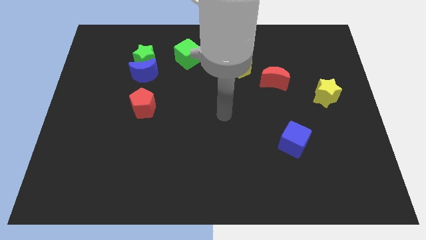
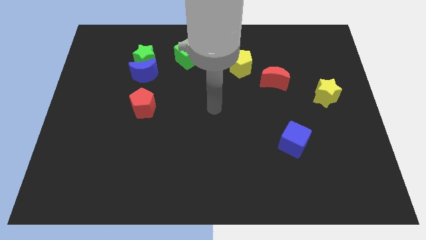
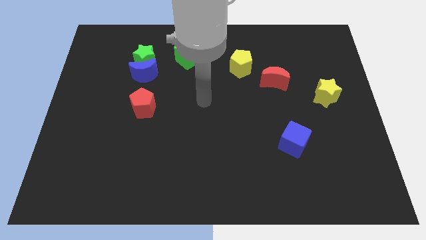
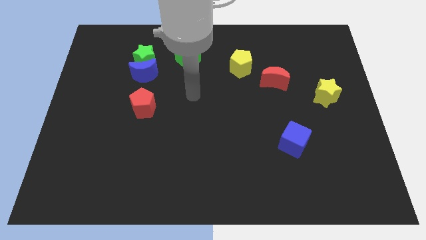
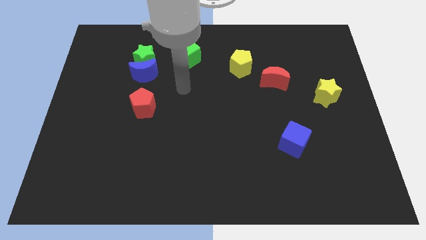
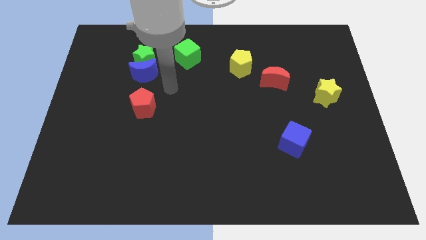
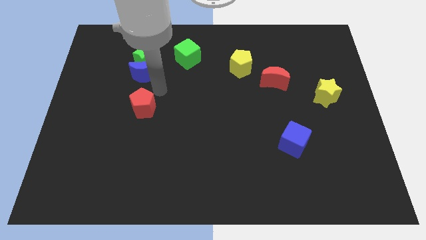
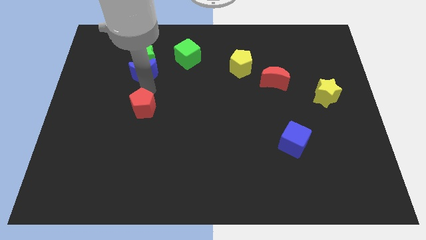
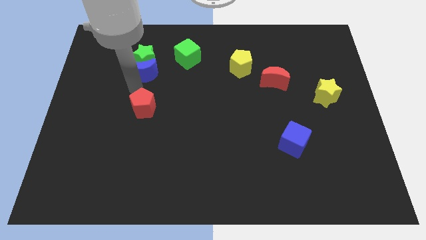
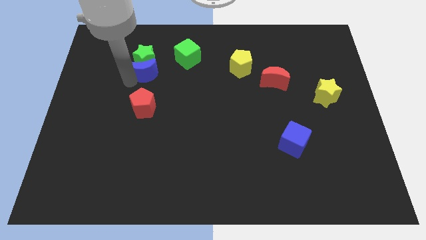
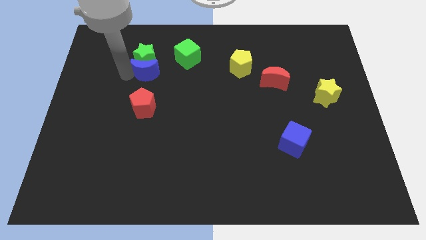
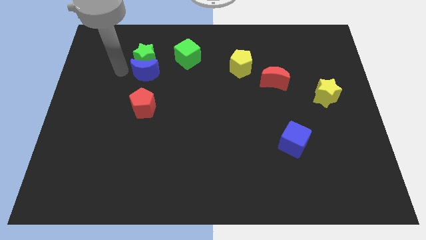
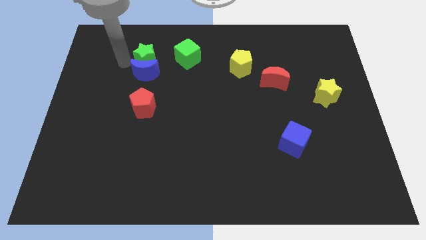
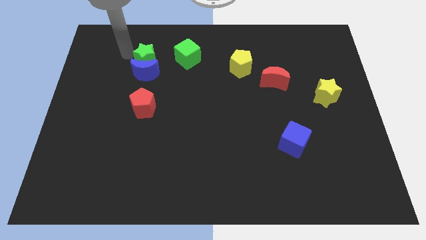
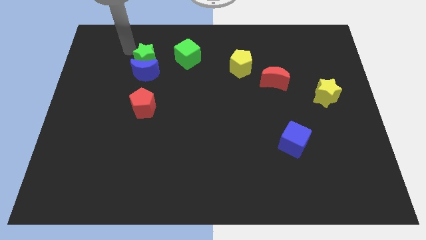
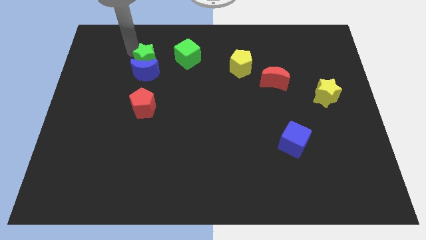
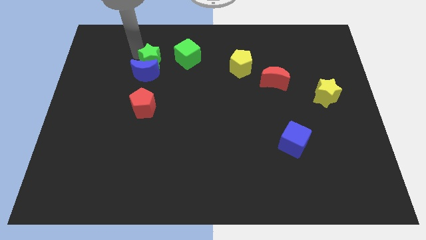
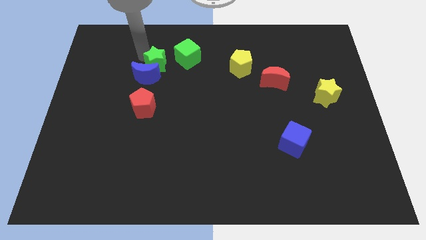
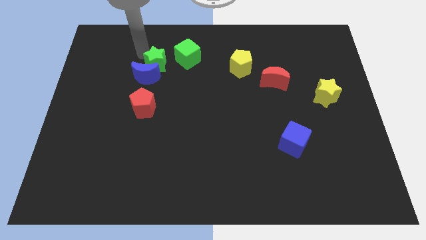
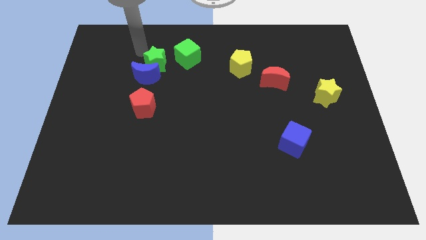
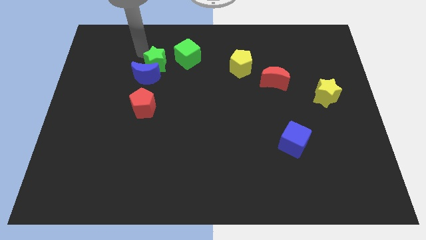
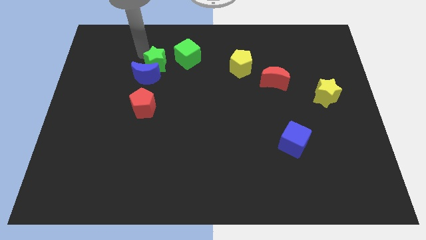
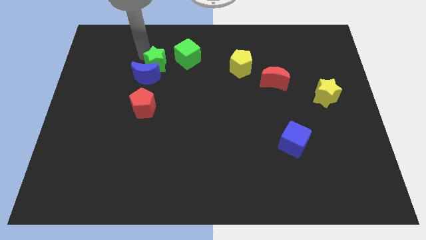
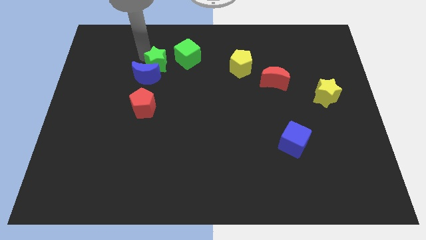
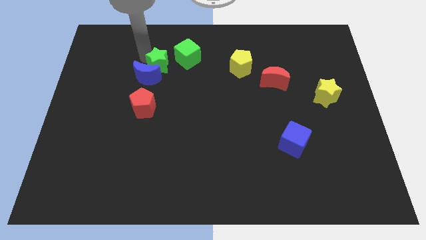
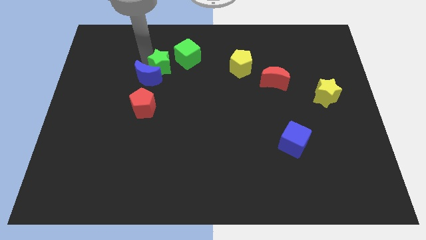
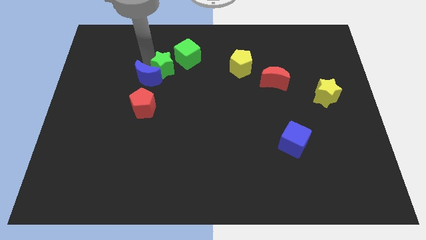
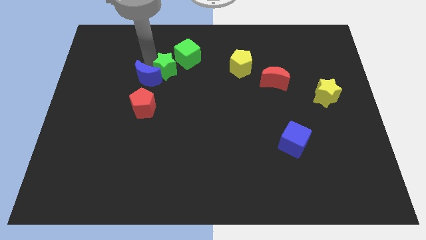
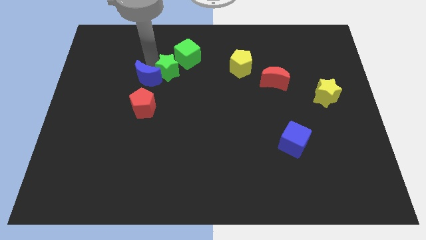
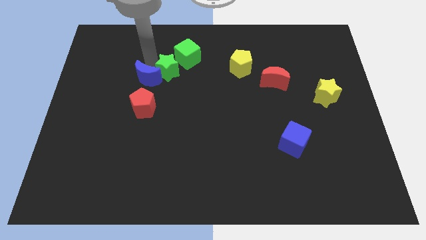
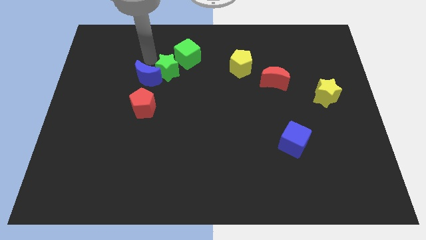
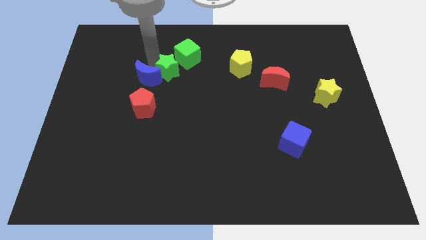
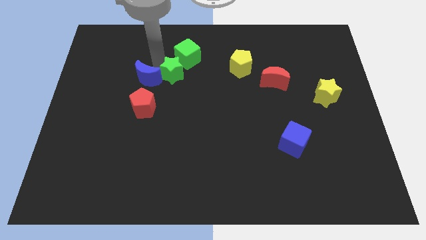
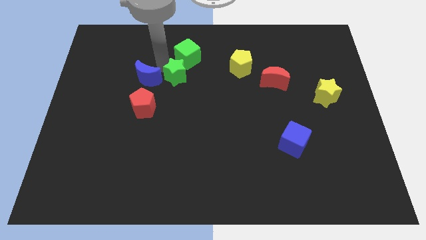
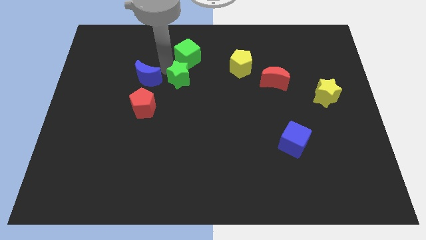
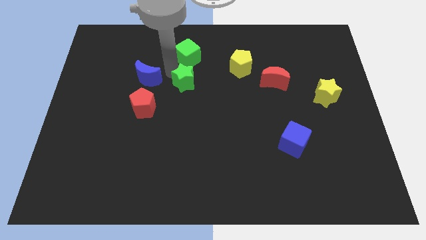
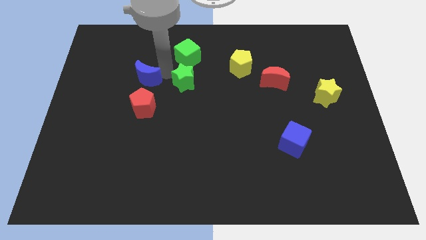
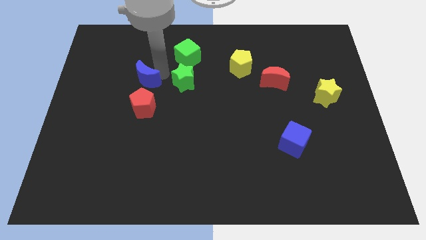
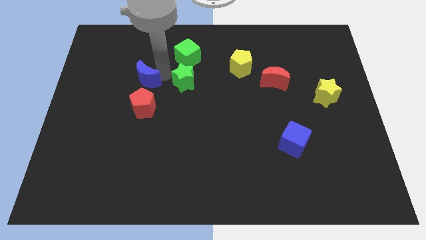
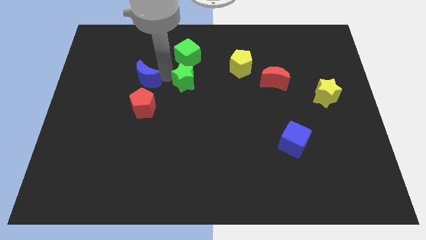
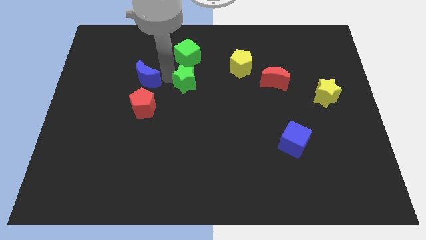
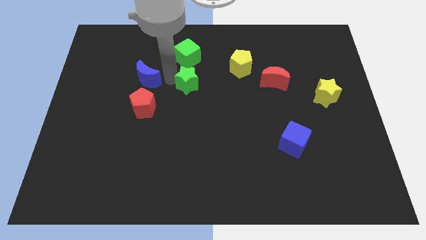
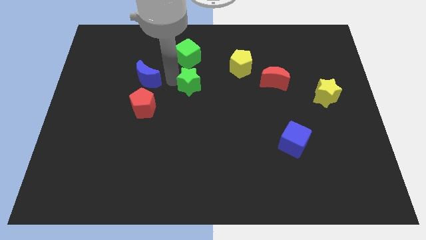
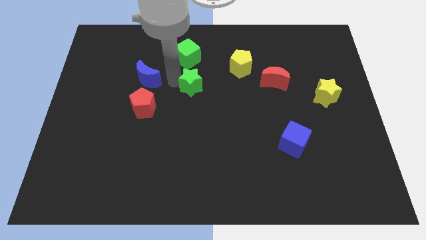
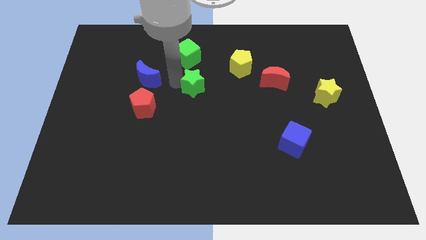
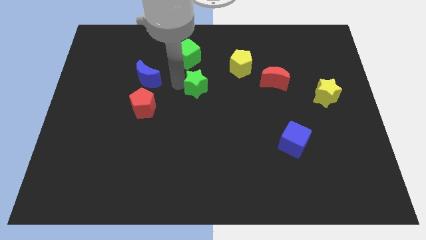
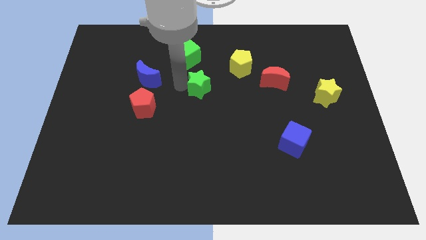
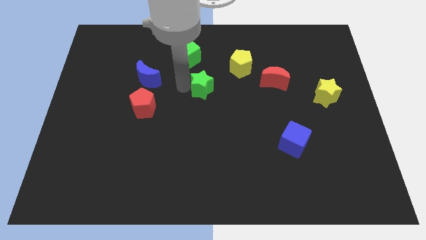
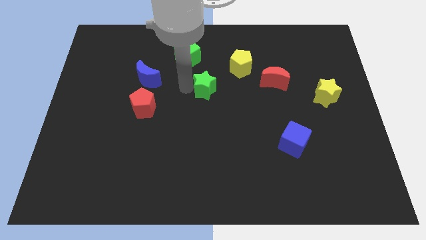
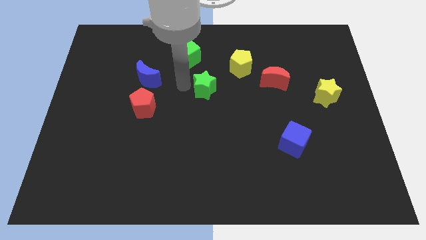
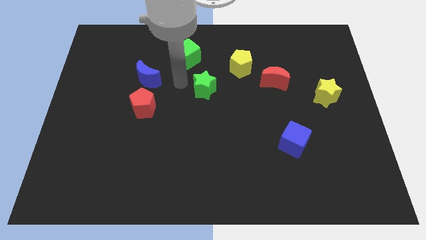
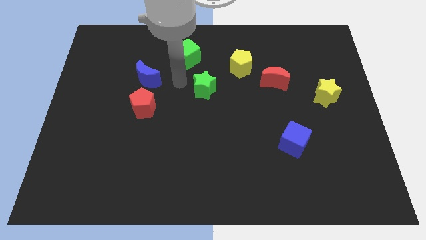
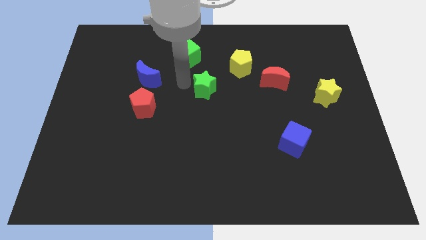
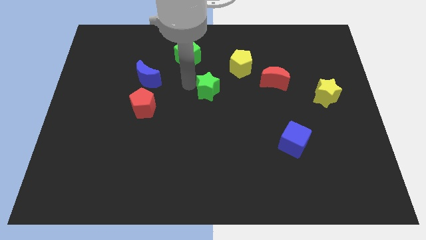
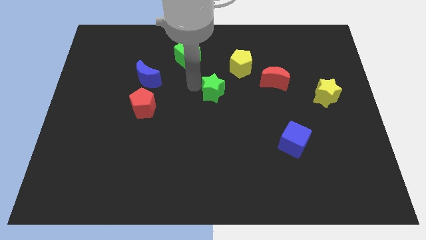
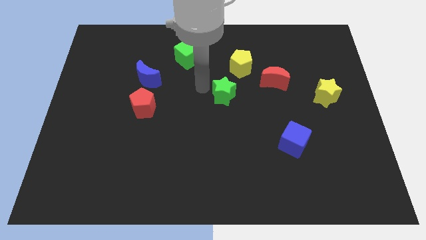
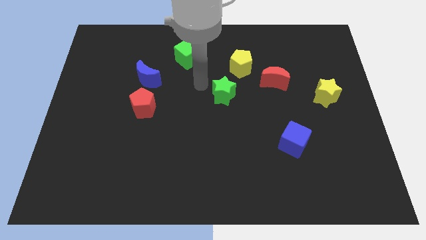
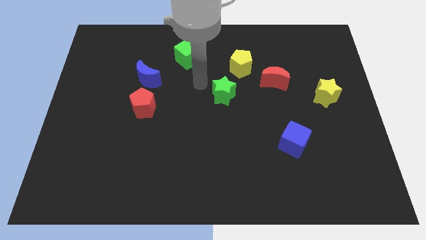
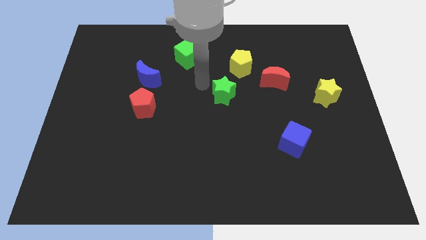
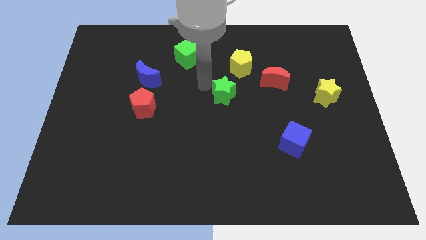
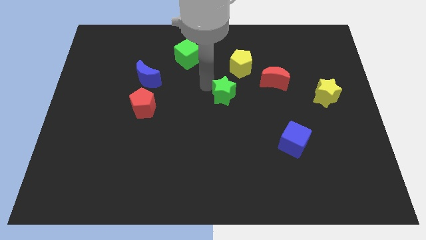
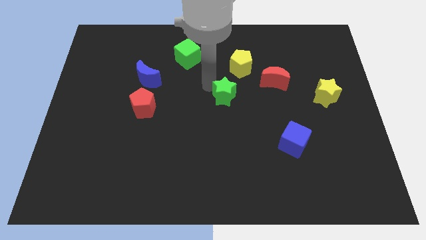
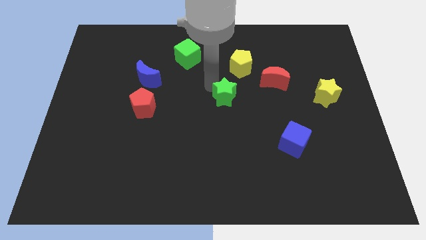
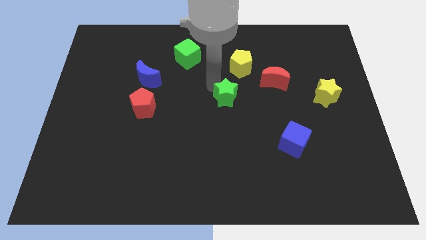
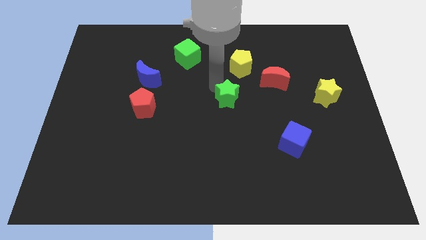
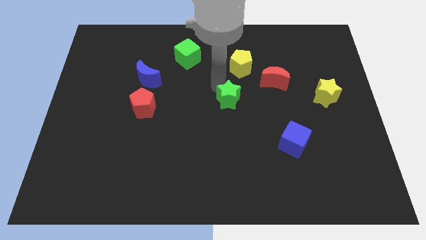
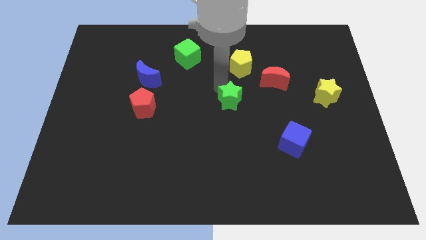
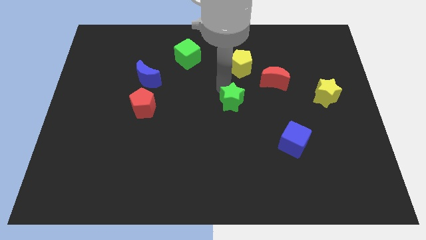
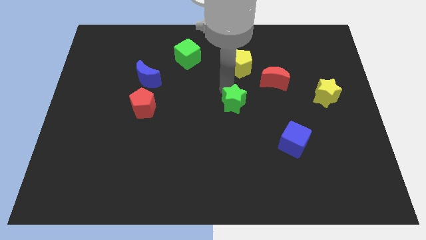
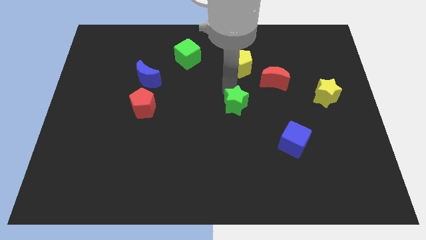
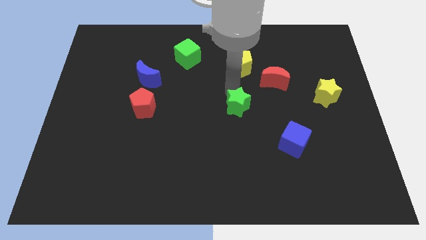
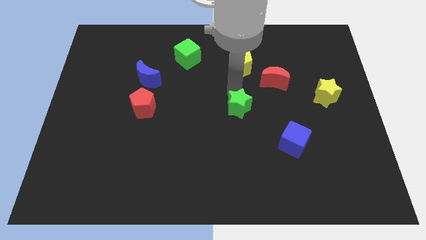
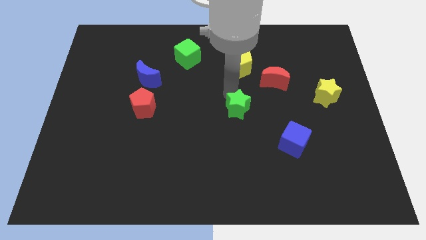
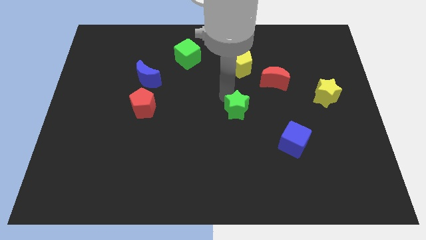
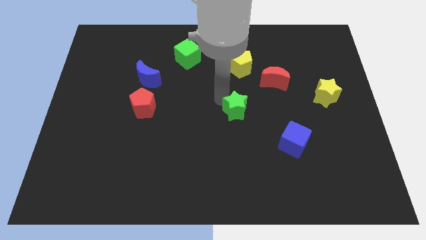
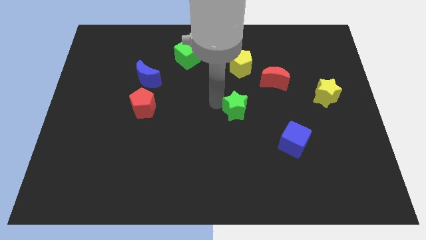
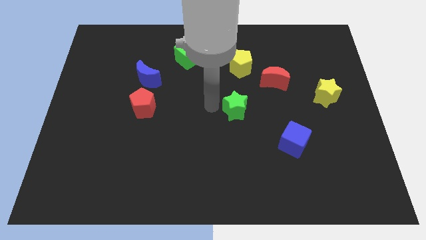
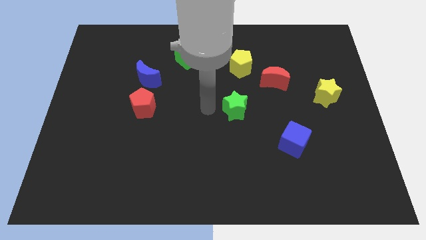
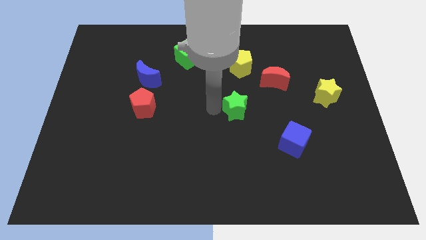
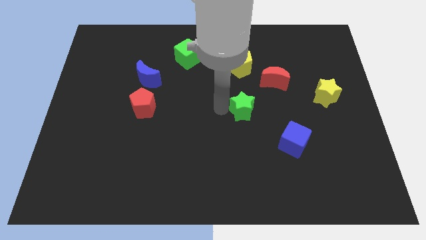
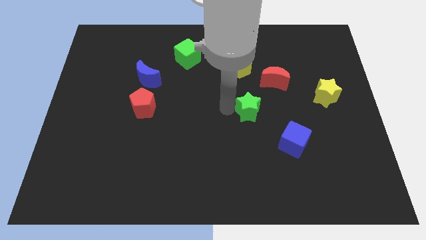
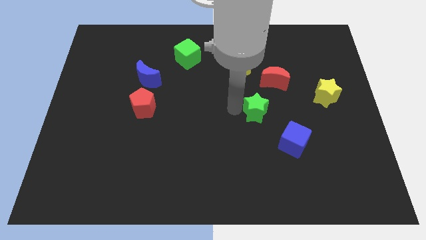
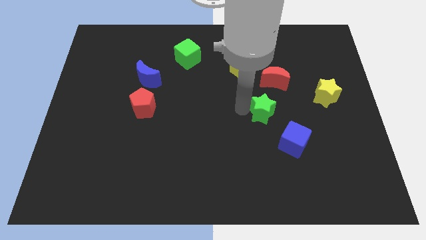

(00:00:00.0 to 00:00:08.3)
push the green star to the bottom of the red moon
